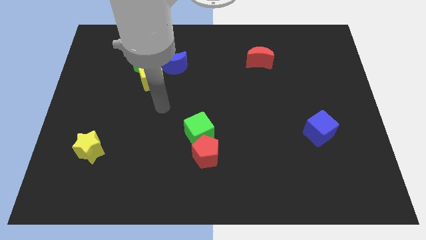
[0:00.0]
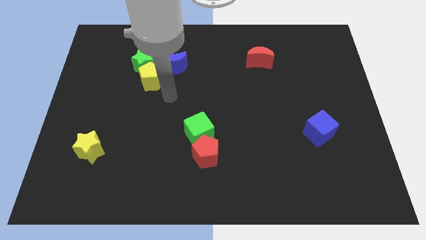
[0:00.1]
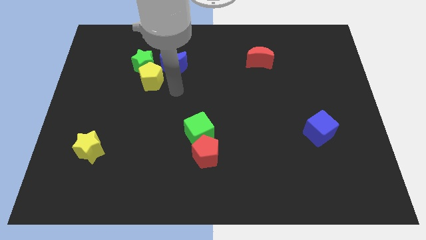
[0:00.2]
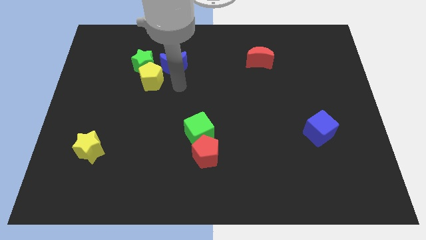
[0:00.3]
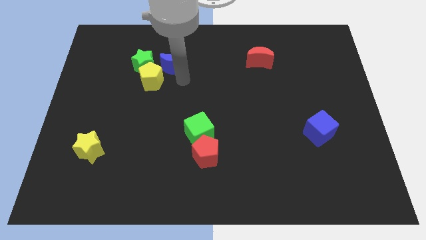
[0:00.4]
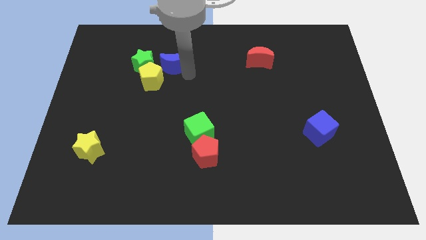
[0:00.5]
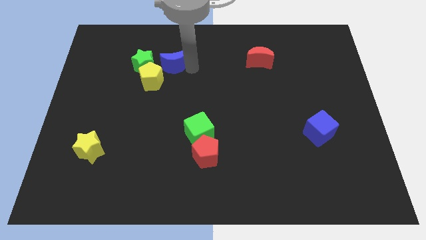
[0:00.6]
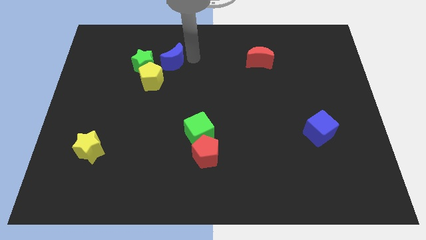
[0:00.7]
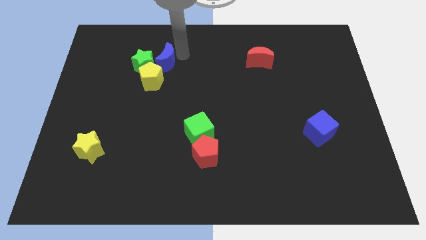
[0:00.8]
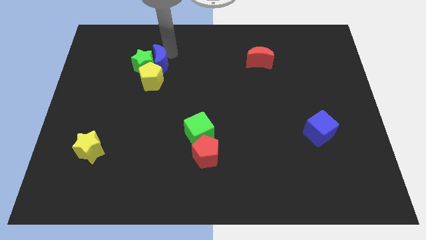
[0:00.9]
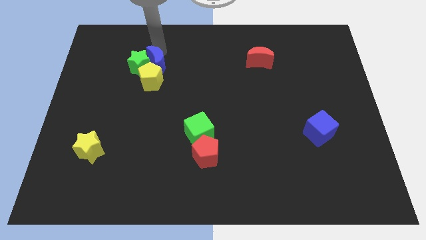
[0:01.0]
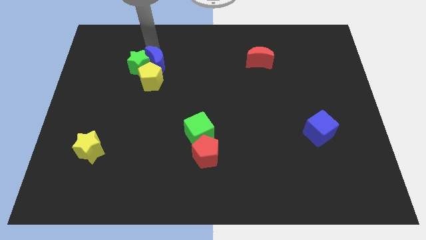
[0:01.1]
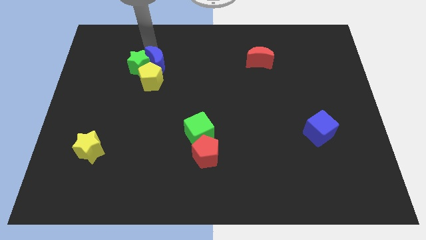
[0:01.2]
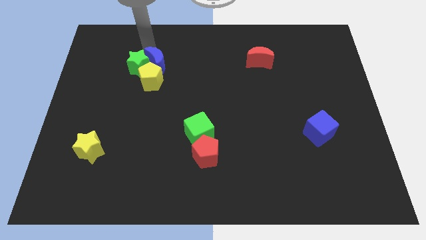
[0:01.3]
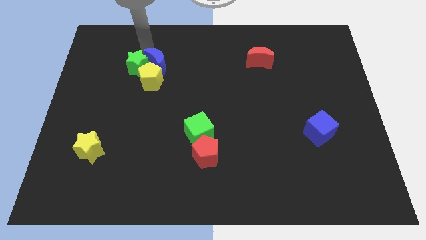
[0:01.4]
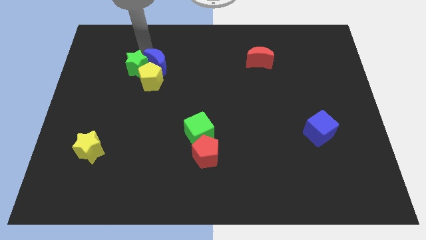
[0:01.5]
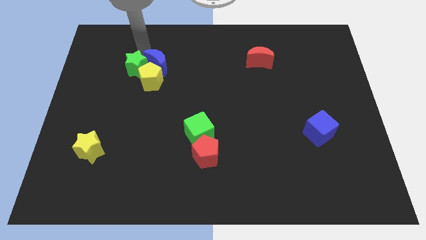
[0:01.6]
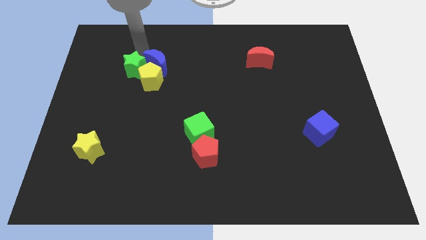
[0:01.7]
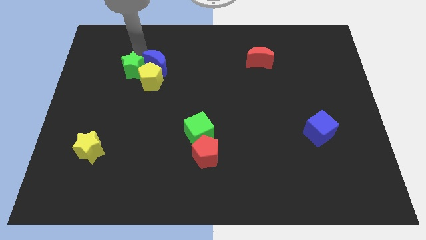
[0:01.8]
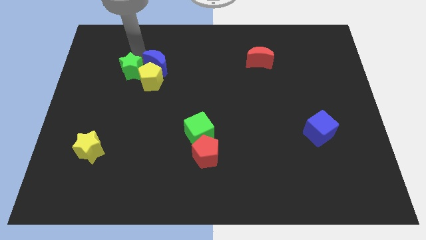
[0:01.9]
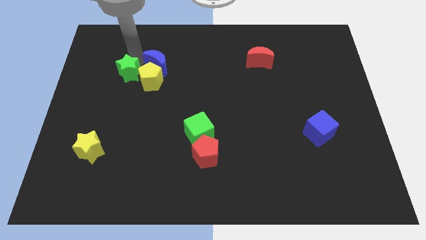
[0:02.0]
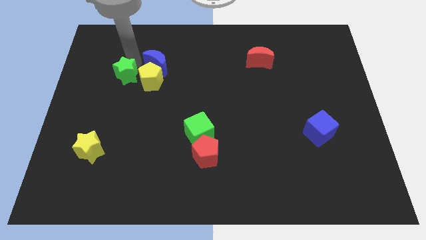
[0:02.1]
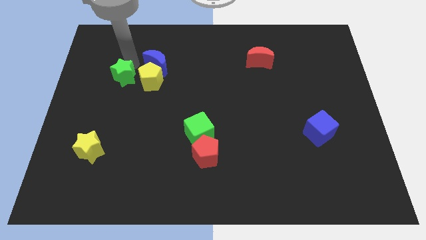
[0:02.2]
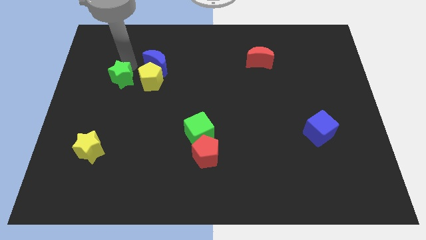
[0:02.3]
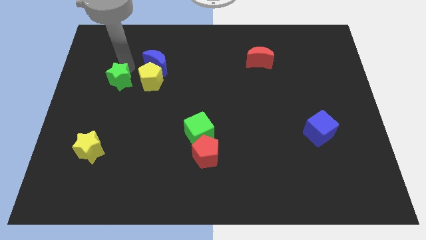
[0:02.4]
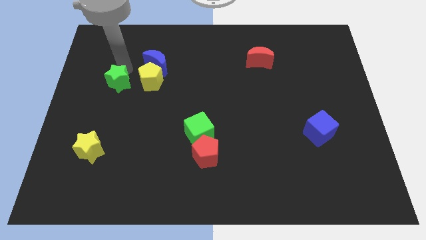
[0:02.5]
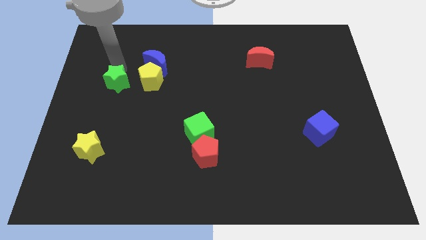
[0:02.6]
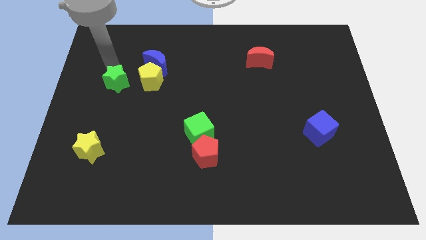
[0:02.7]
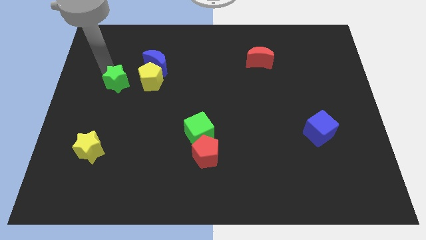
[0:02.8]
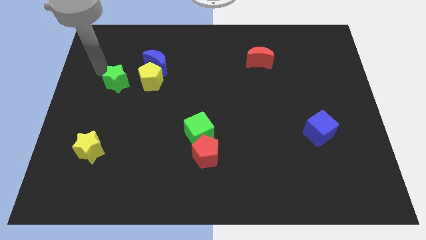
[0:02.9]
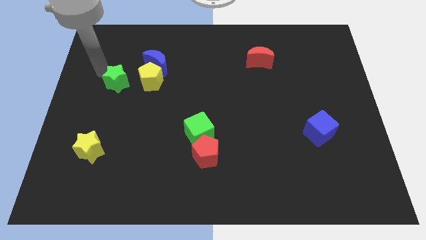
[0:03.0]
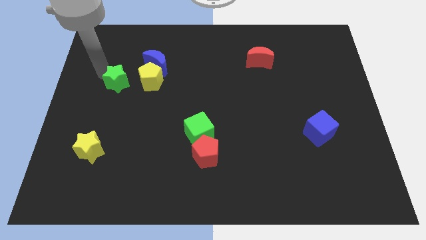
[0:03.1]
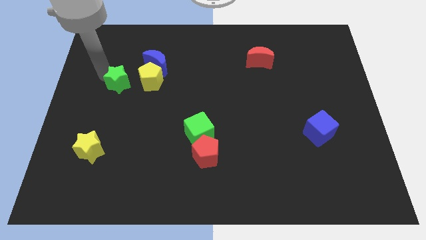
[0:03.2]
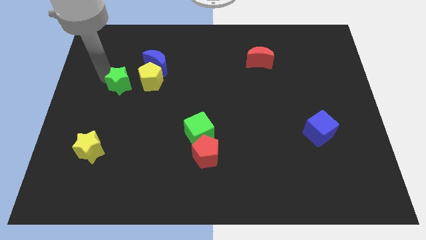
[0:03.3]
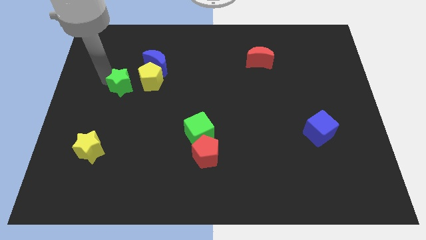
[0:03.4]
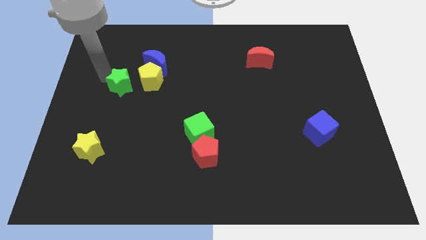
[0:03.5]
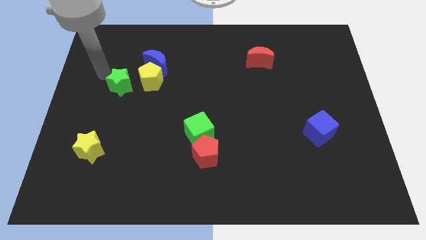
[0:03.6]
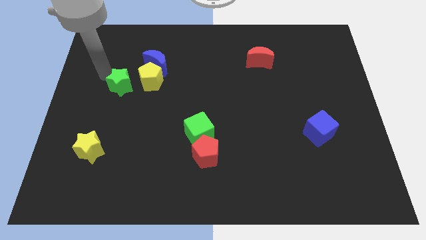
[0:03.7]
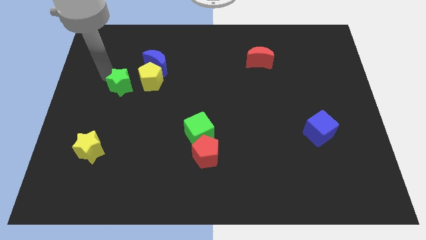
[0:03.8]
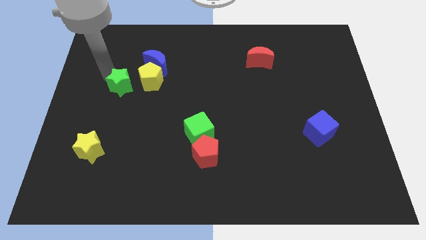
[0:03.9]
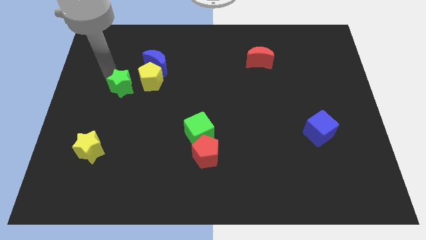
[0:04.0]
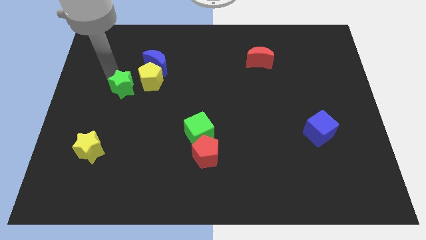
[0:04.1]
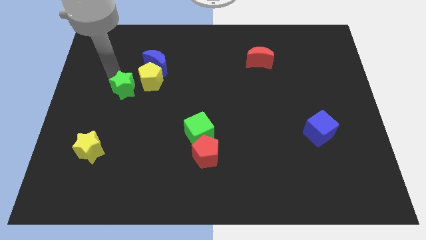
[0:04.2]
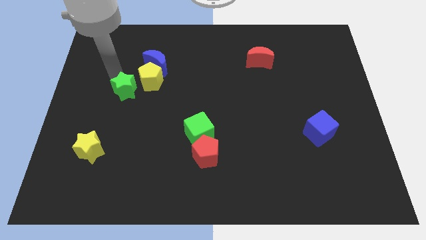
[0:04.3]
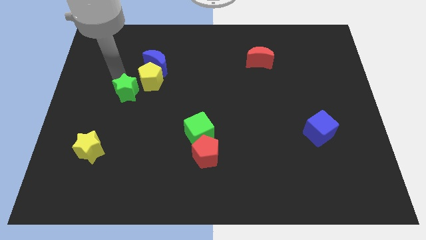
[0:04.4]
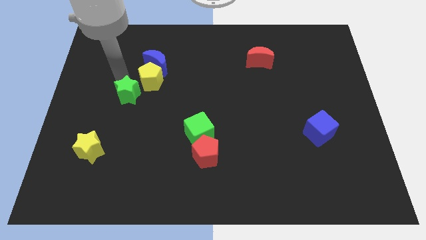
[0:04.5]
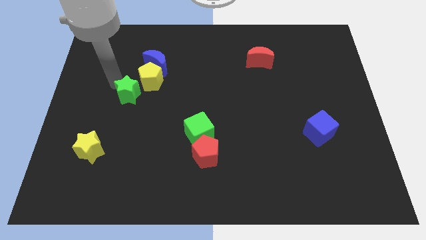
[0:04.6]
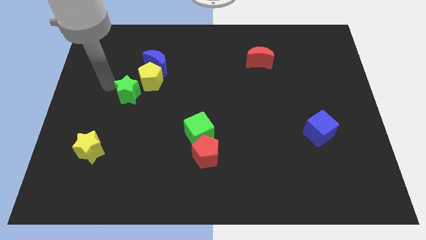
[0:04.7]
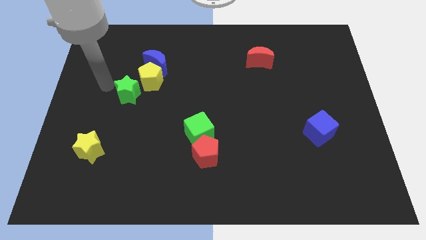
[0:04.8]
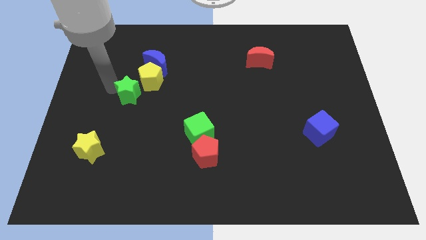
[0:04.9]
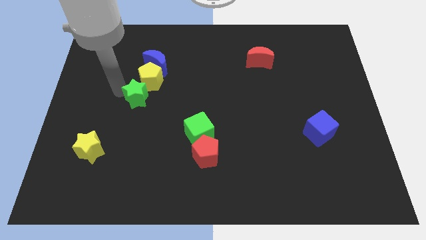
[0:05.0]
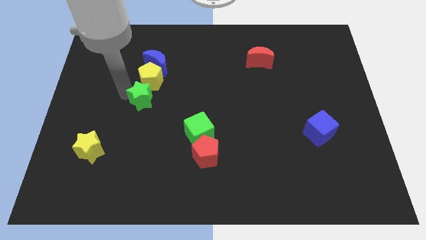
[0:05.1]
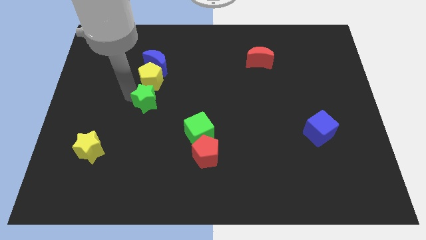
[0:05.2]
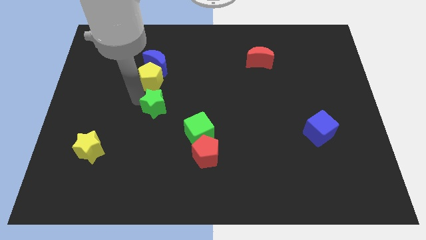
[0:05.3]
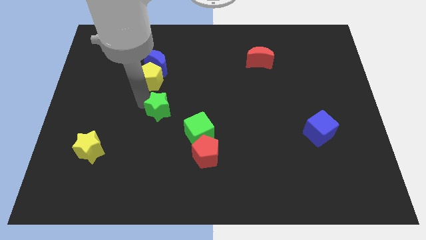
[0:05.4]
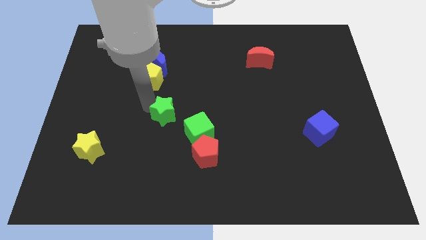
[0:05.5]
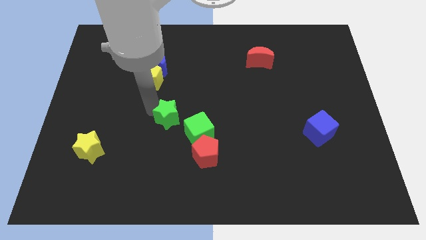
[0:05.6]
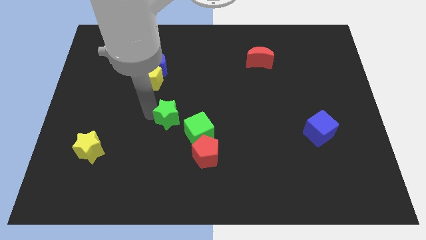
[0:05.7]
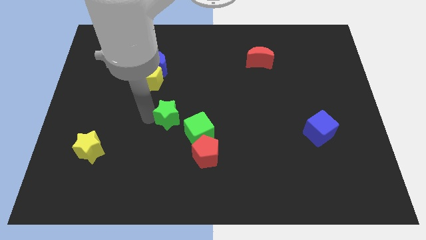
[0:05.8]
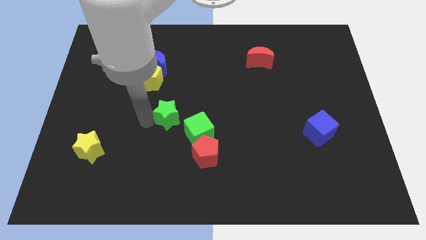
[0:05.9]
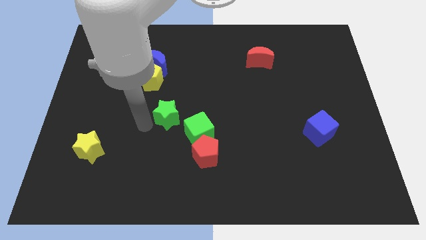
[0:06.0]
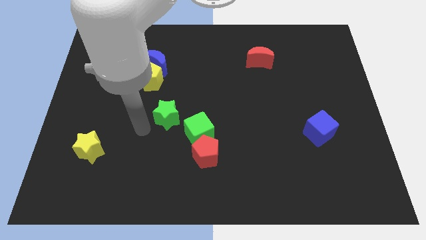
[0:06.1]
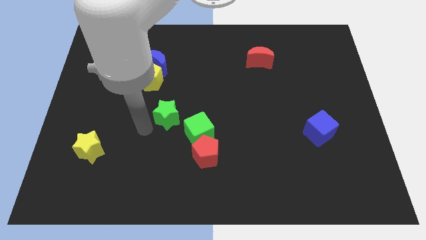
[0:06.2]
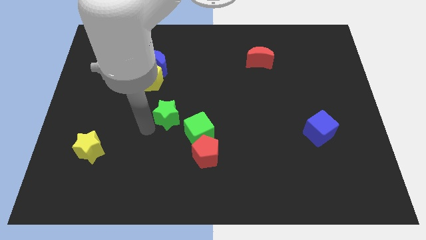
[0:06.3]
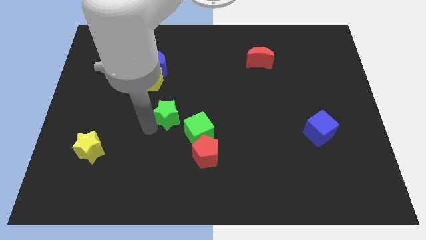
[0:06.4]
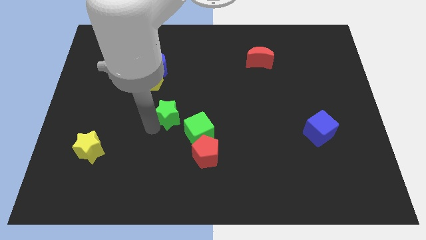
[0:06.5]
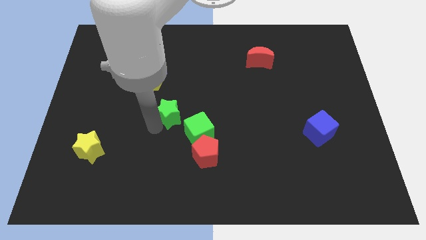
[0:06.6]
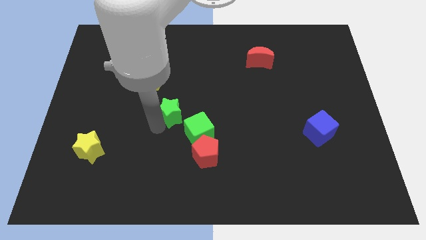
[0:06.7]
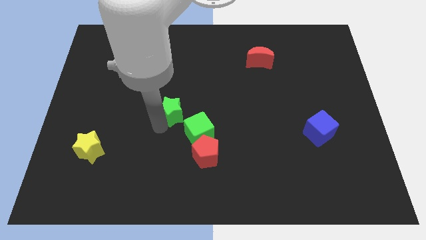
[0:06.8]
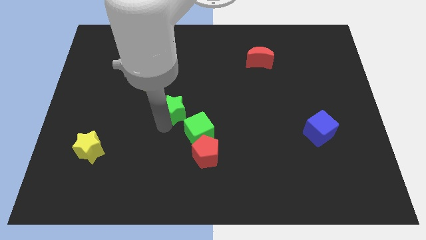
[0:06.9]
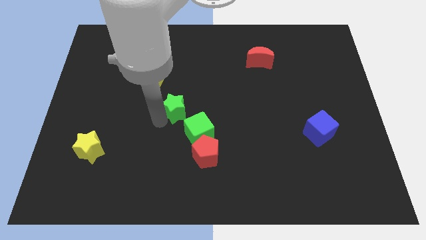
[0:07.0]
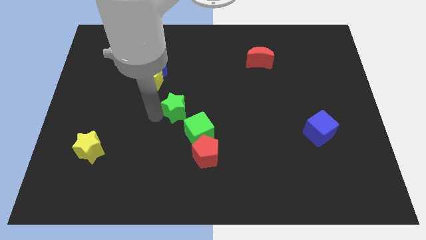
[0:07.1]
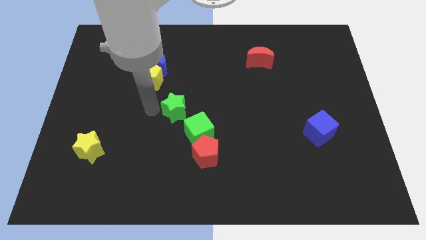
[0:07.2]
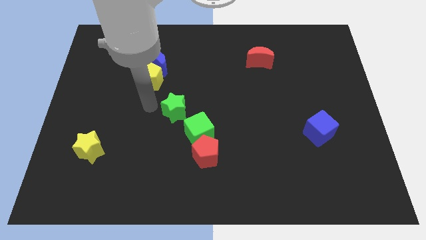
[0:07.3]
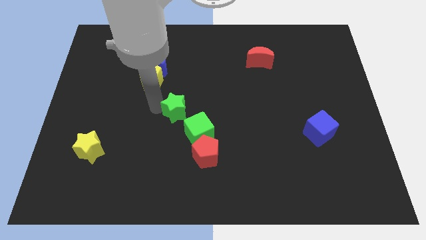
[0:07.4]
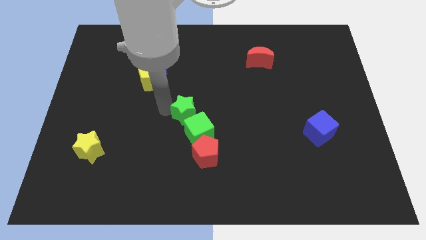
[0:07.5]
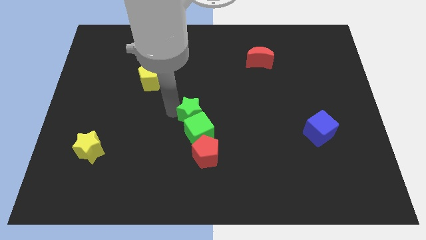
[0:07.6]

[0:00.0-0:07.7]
push the green star downwards and then right

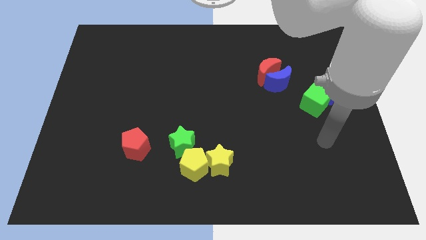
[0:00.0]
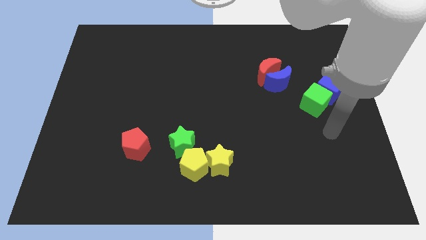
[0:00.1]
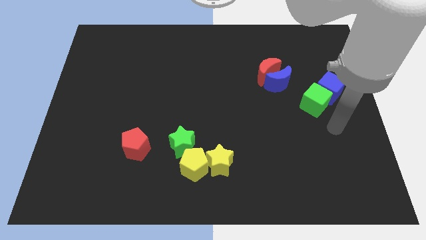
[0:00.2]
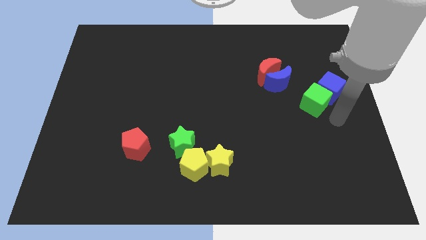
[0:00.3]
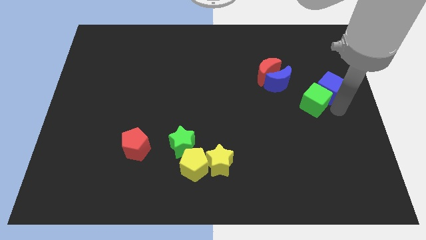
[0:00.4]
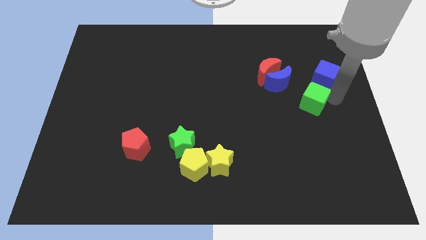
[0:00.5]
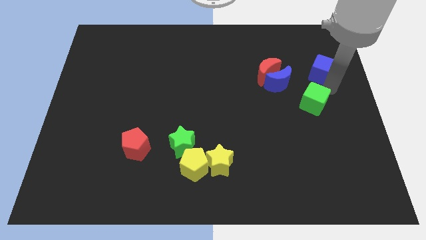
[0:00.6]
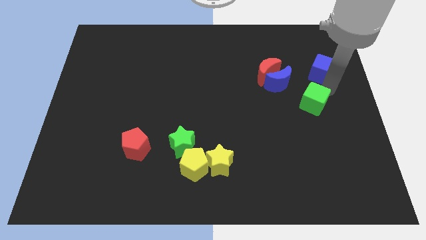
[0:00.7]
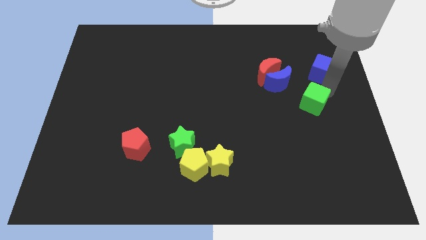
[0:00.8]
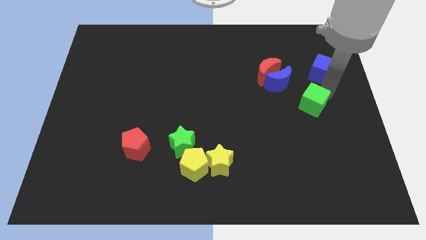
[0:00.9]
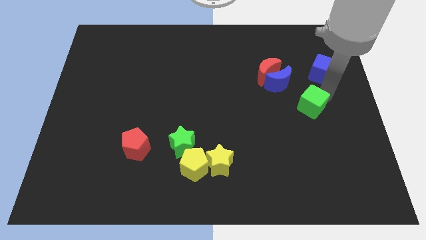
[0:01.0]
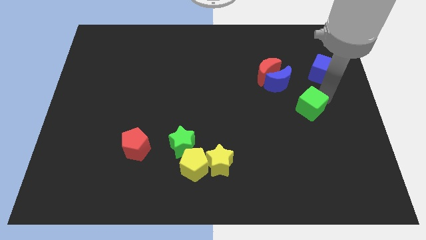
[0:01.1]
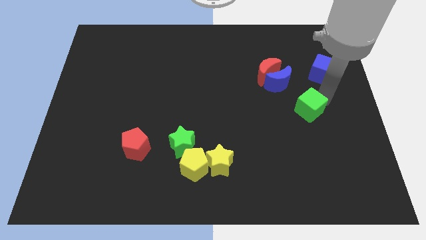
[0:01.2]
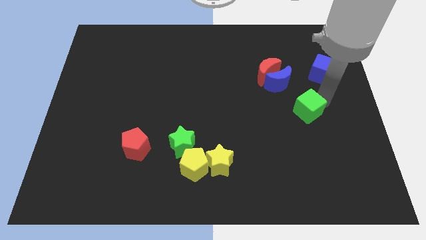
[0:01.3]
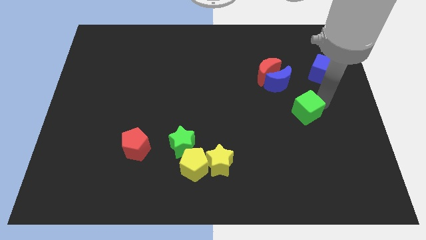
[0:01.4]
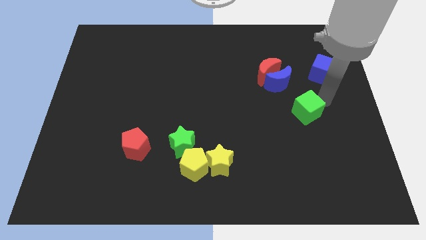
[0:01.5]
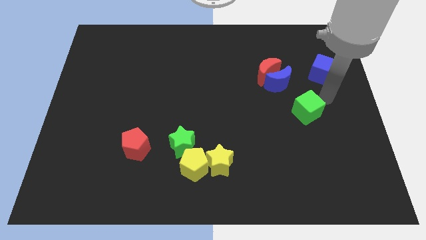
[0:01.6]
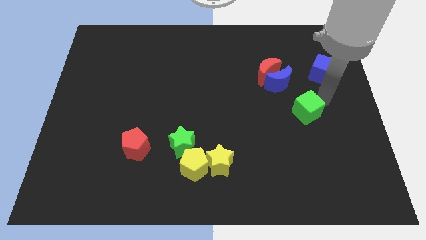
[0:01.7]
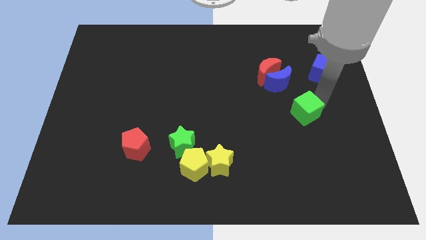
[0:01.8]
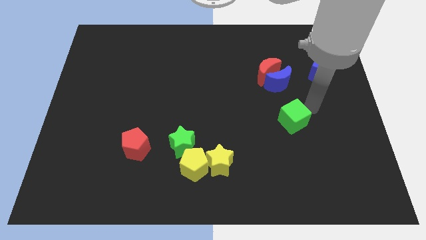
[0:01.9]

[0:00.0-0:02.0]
slide the green cube down and left diagonally somewhat
